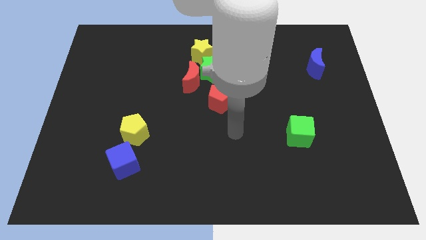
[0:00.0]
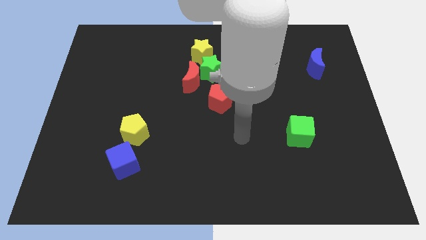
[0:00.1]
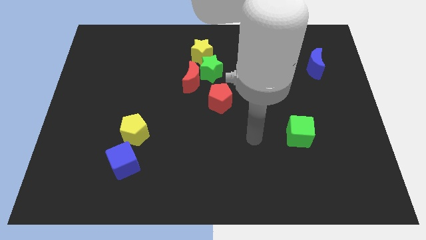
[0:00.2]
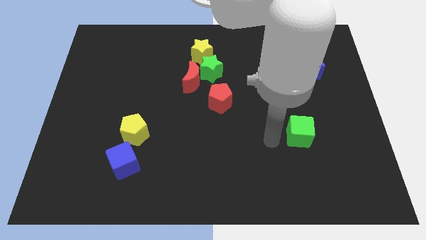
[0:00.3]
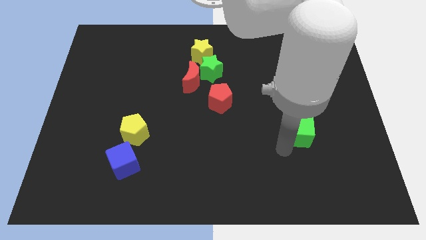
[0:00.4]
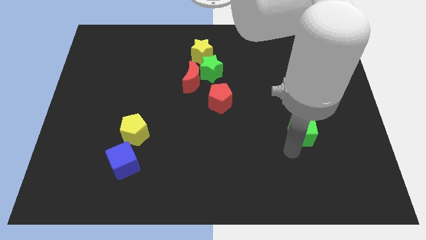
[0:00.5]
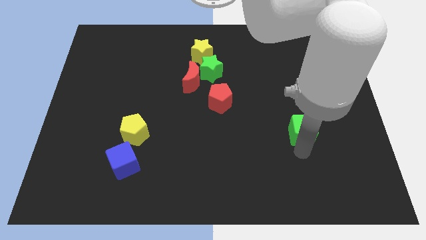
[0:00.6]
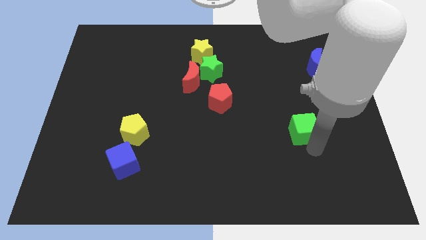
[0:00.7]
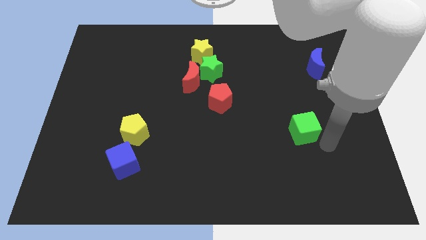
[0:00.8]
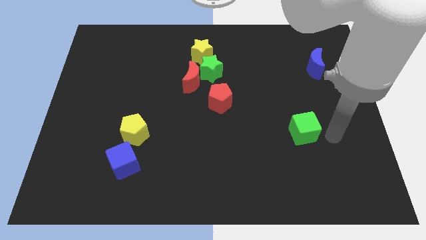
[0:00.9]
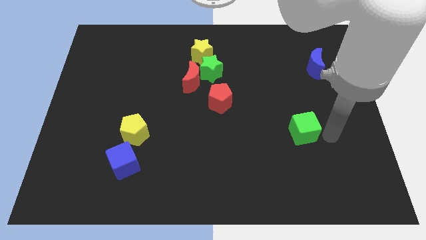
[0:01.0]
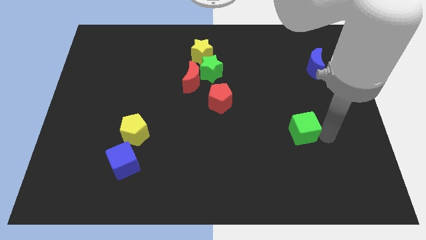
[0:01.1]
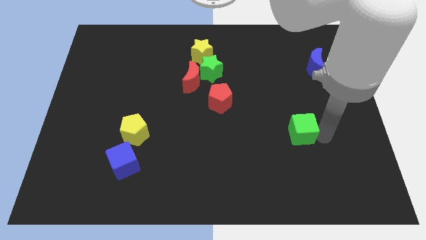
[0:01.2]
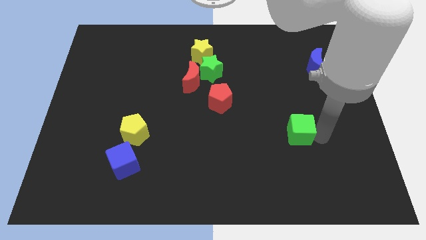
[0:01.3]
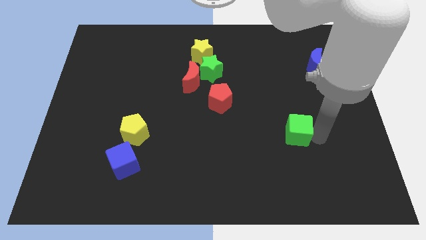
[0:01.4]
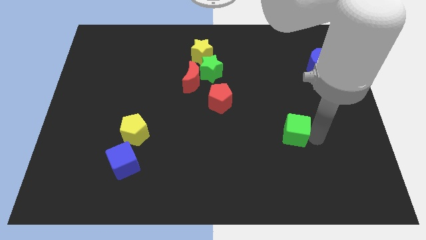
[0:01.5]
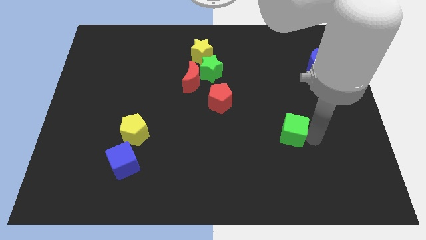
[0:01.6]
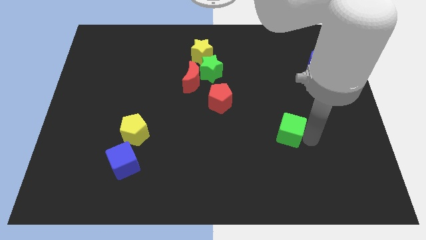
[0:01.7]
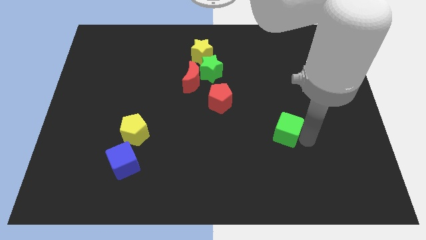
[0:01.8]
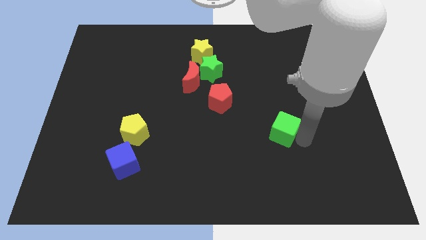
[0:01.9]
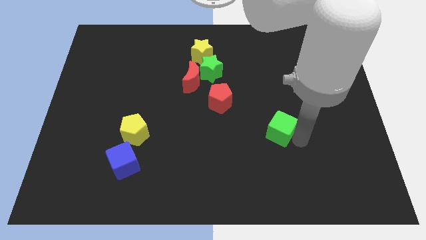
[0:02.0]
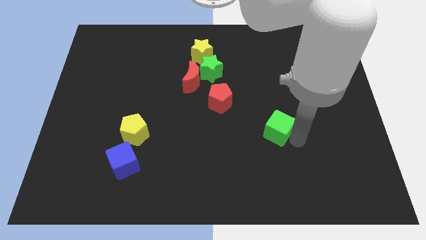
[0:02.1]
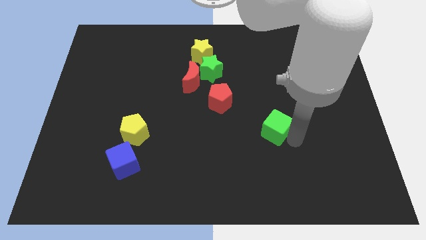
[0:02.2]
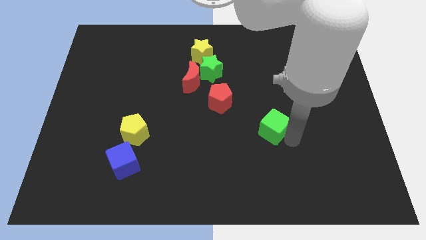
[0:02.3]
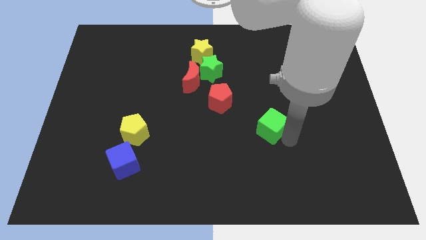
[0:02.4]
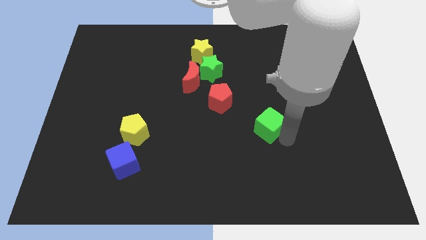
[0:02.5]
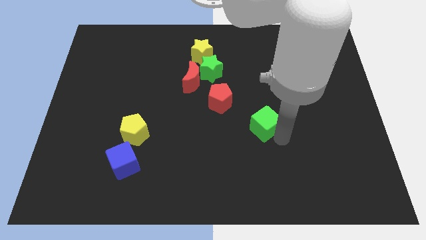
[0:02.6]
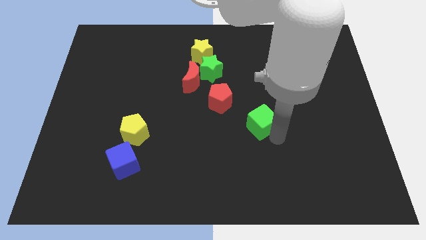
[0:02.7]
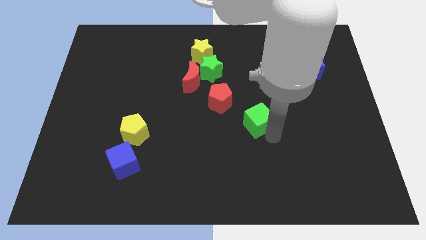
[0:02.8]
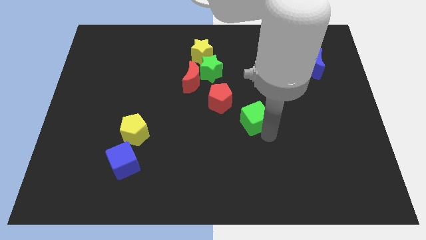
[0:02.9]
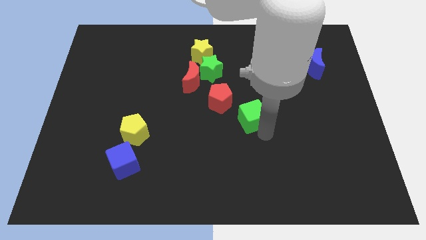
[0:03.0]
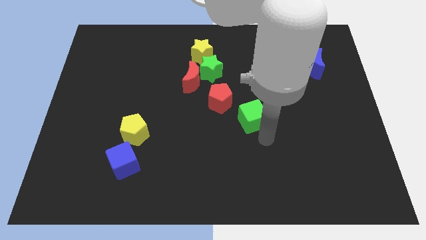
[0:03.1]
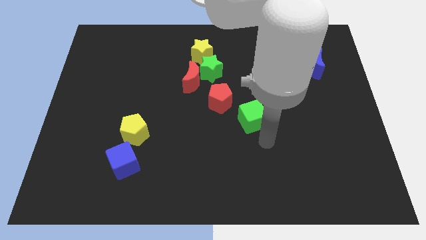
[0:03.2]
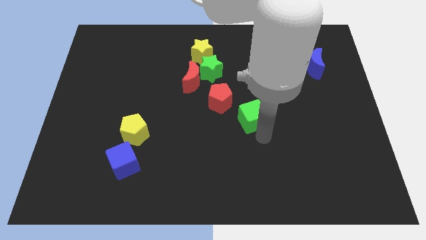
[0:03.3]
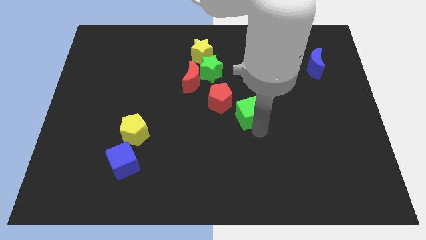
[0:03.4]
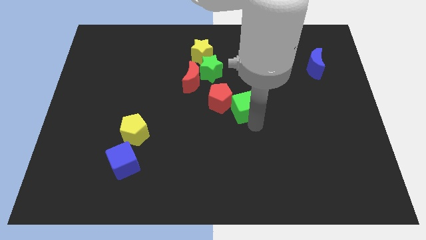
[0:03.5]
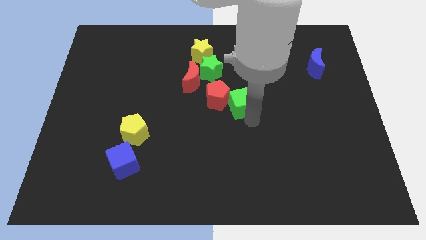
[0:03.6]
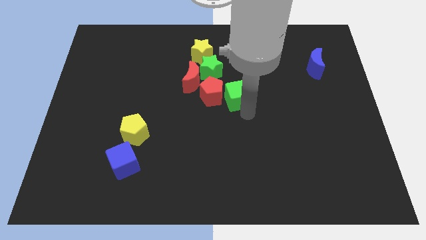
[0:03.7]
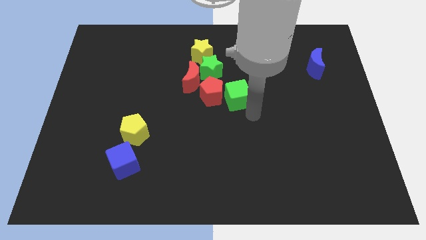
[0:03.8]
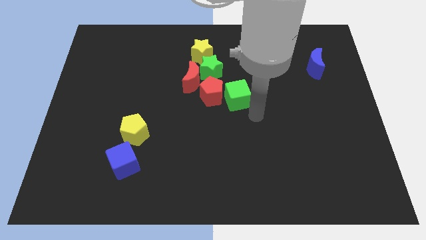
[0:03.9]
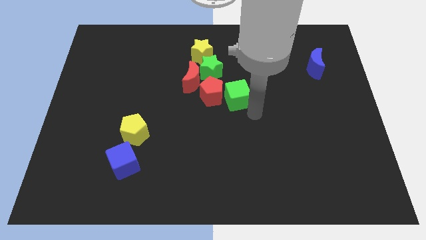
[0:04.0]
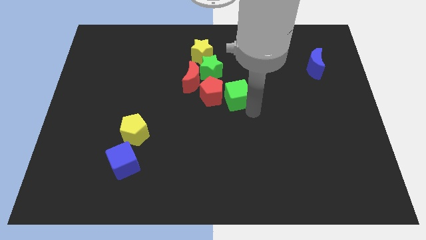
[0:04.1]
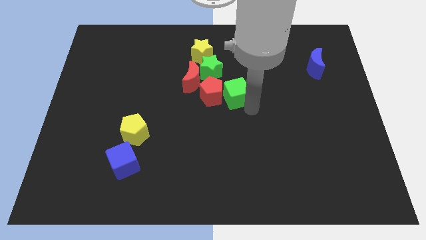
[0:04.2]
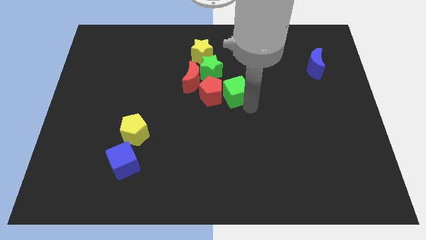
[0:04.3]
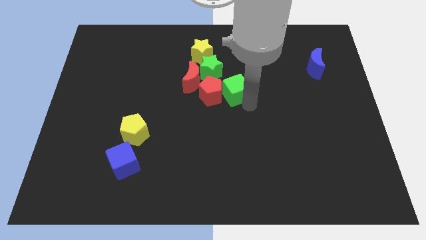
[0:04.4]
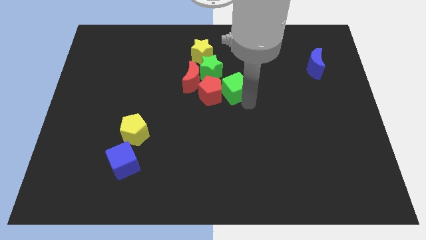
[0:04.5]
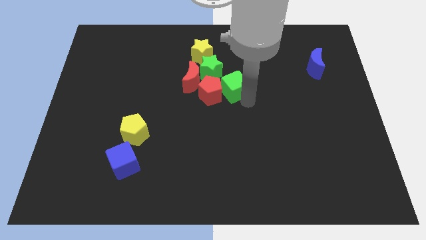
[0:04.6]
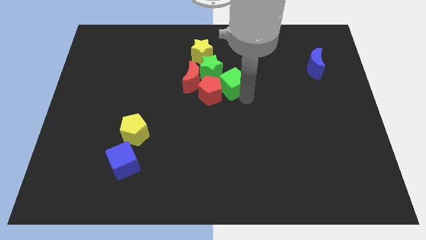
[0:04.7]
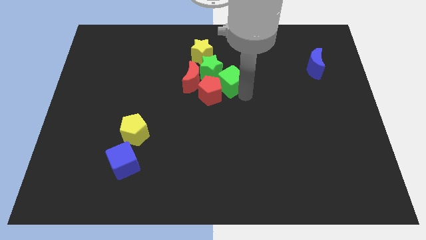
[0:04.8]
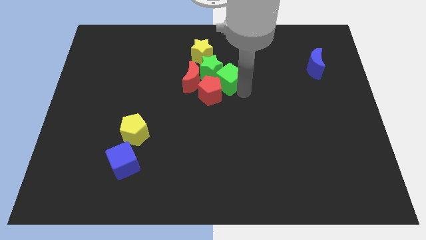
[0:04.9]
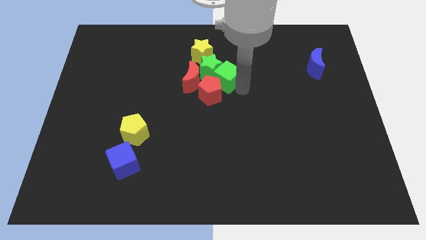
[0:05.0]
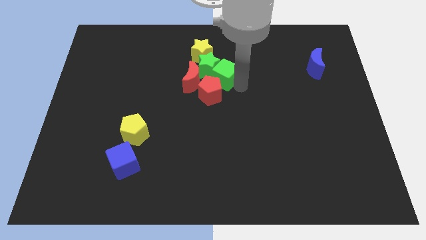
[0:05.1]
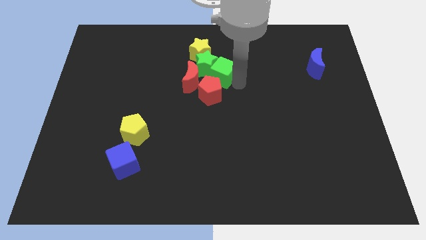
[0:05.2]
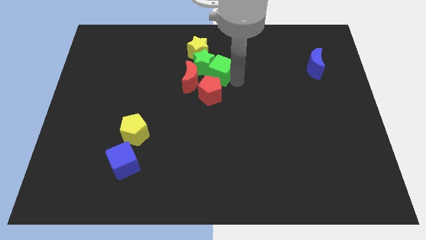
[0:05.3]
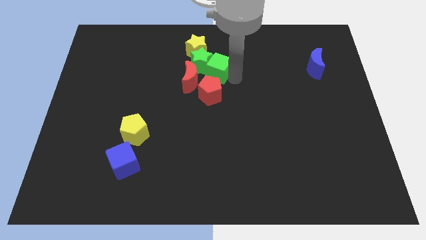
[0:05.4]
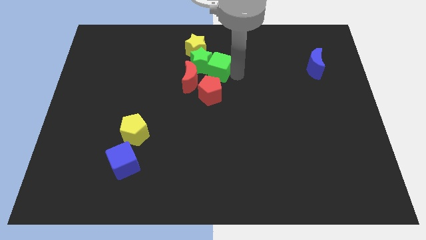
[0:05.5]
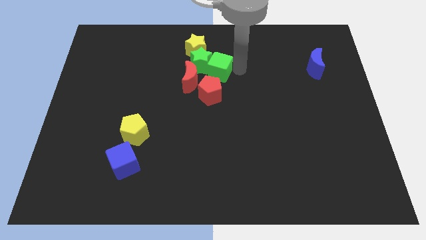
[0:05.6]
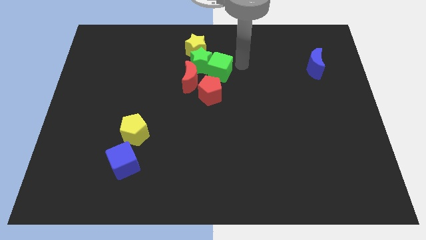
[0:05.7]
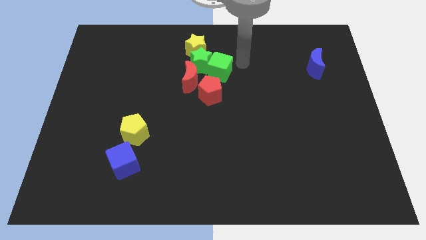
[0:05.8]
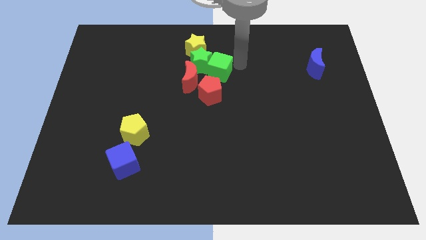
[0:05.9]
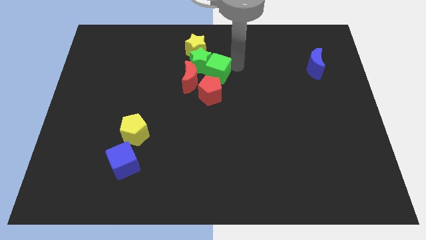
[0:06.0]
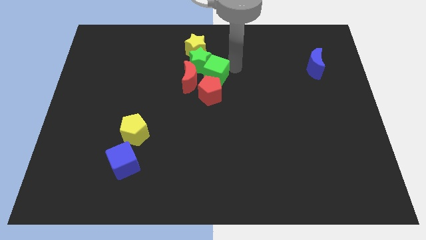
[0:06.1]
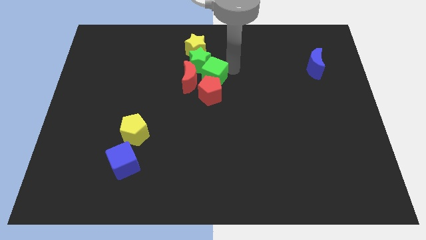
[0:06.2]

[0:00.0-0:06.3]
push the green cube to the red moon

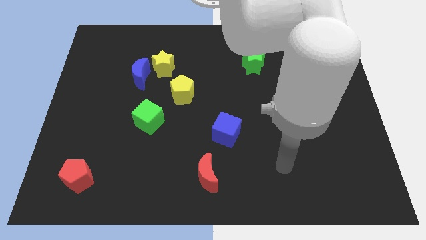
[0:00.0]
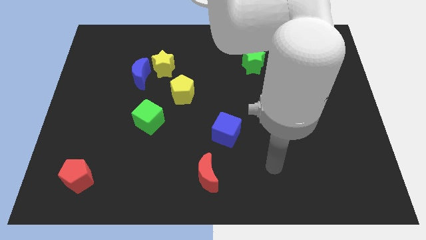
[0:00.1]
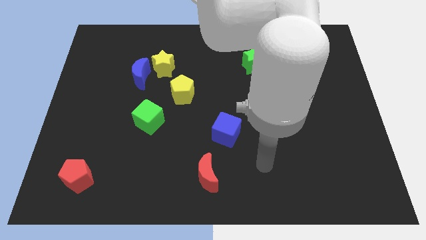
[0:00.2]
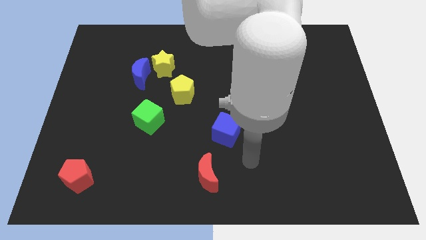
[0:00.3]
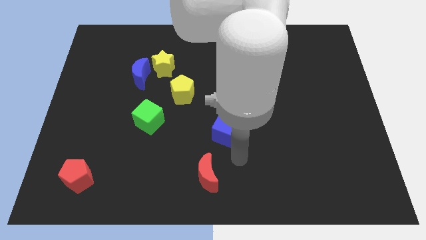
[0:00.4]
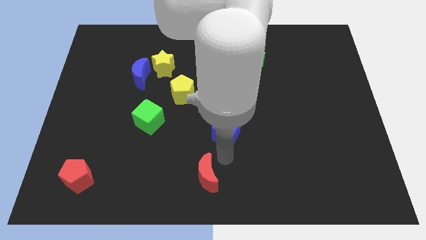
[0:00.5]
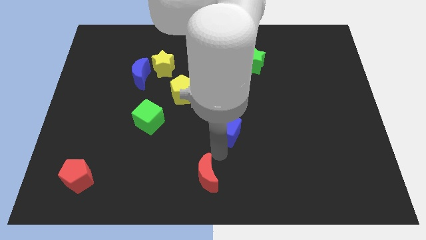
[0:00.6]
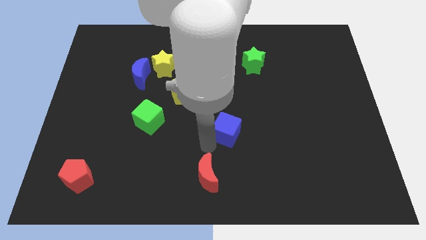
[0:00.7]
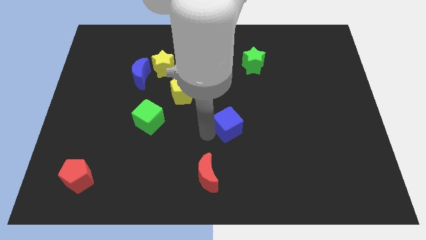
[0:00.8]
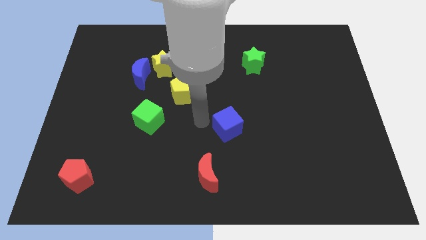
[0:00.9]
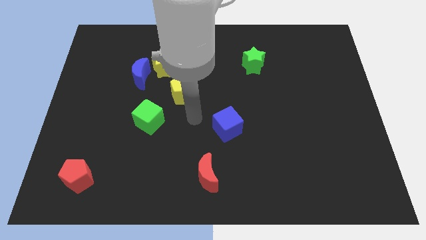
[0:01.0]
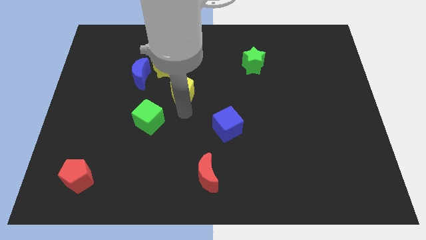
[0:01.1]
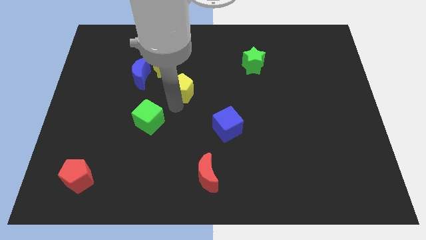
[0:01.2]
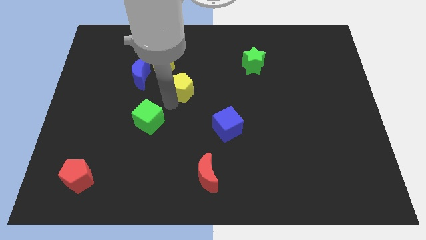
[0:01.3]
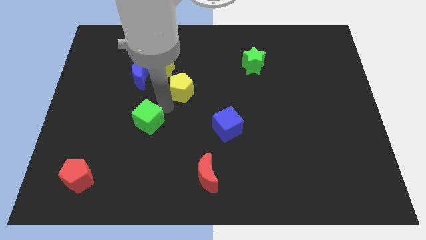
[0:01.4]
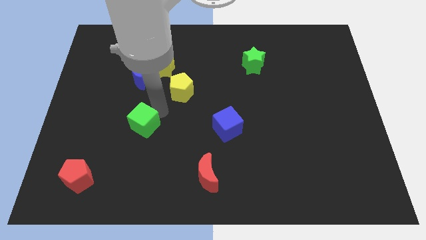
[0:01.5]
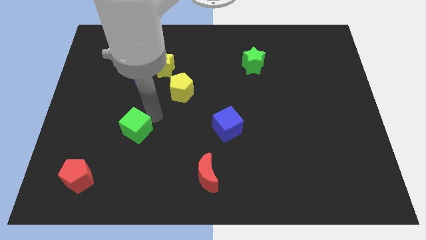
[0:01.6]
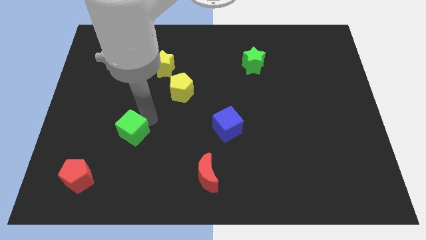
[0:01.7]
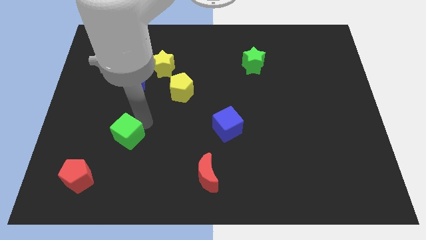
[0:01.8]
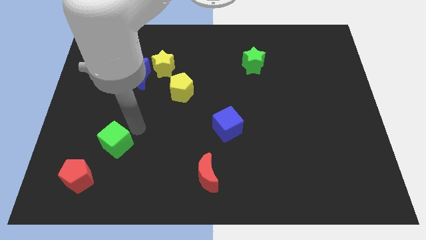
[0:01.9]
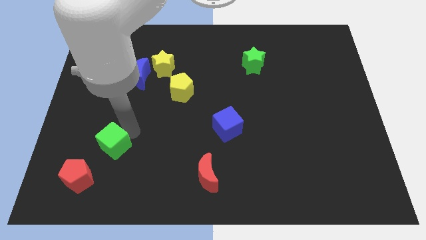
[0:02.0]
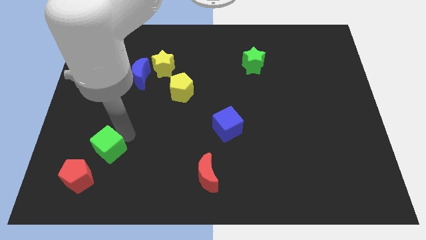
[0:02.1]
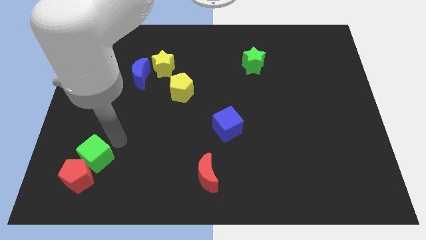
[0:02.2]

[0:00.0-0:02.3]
push the green cube towards the red pentagon
